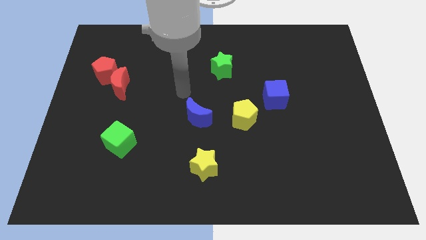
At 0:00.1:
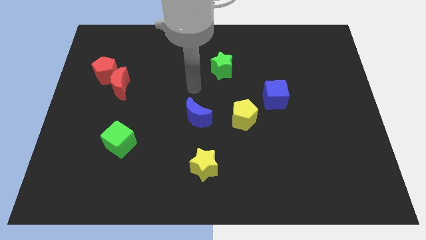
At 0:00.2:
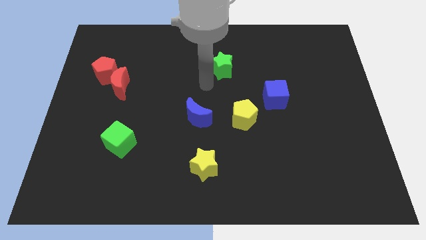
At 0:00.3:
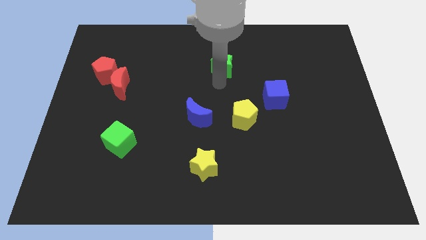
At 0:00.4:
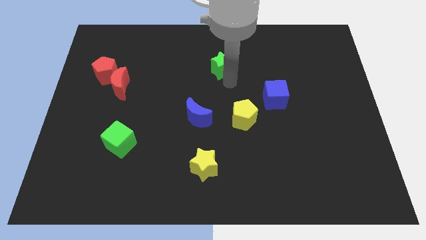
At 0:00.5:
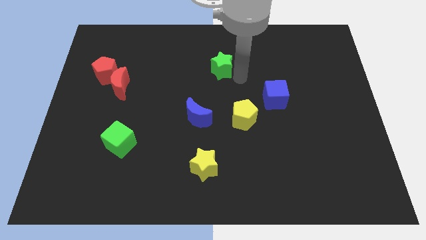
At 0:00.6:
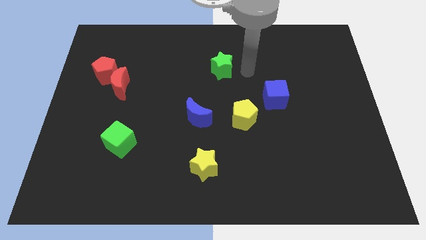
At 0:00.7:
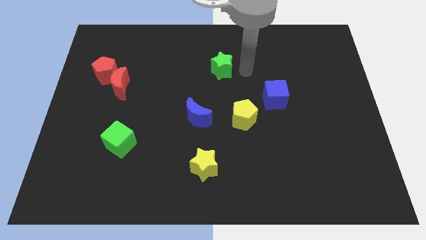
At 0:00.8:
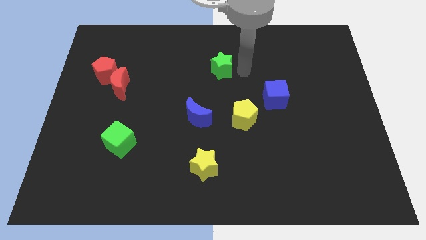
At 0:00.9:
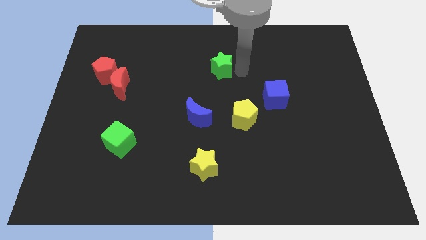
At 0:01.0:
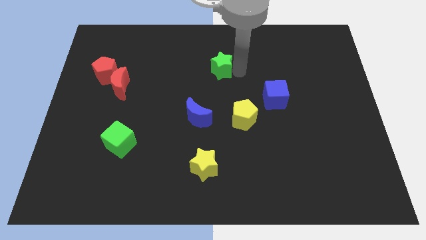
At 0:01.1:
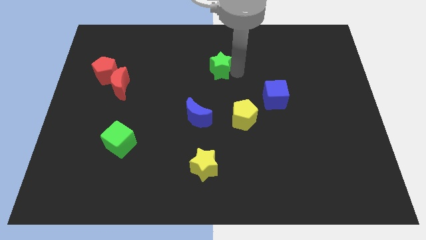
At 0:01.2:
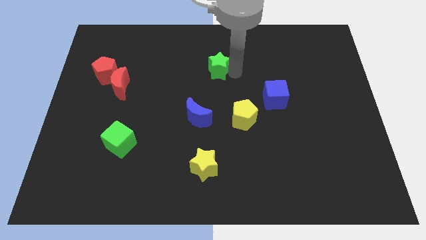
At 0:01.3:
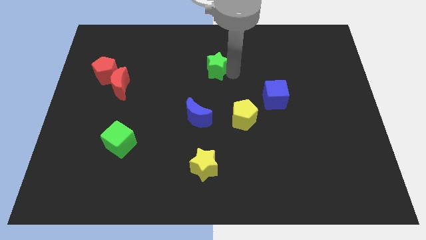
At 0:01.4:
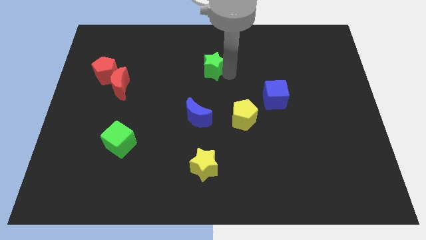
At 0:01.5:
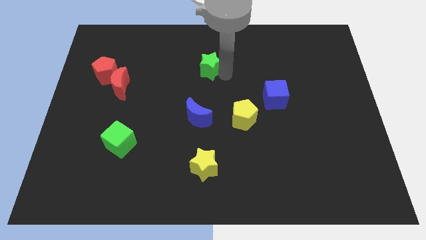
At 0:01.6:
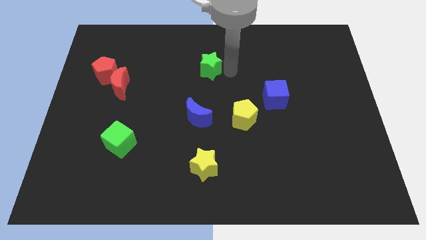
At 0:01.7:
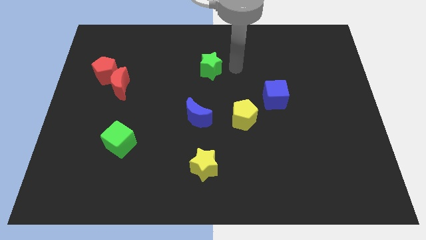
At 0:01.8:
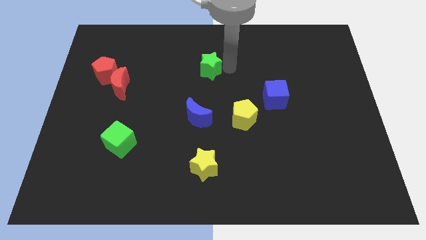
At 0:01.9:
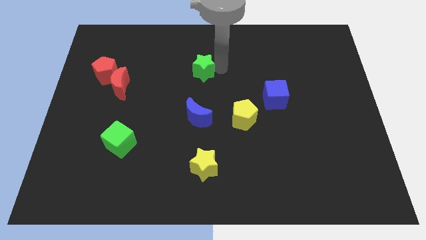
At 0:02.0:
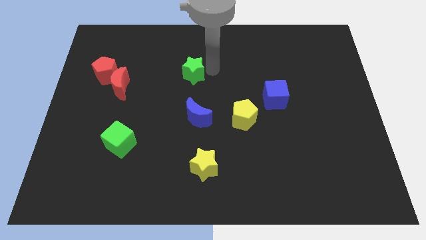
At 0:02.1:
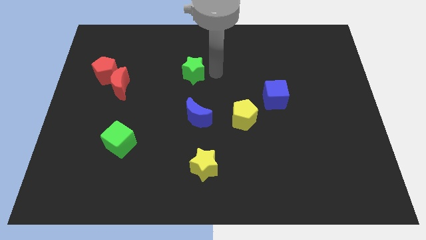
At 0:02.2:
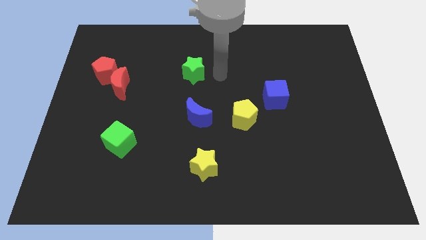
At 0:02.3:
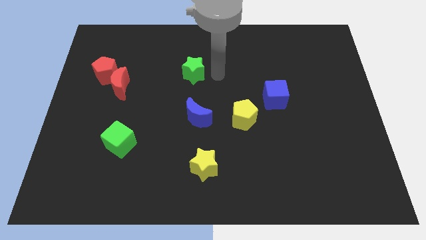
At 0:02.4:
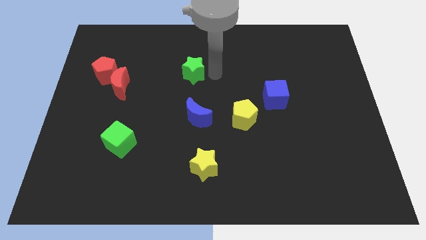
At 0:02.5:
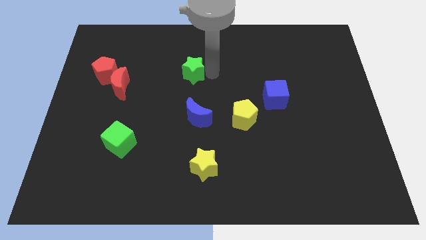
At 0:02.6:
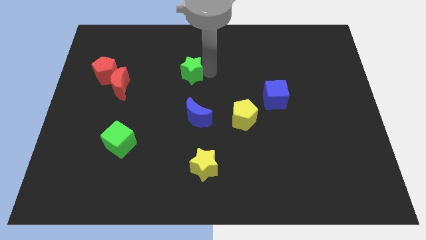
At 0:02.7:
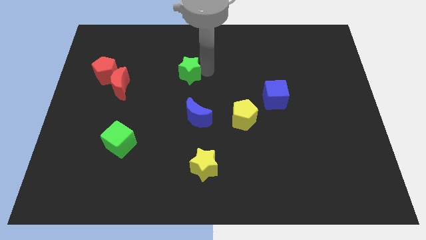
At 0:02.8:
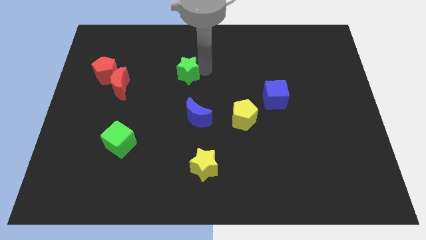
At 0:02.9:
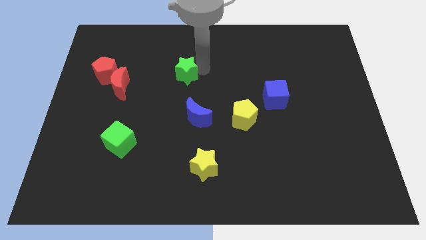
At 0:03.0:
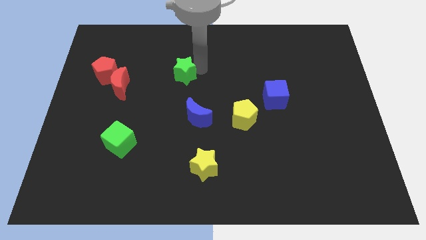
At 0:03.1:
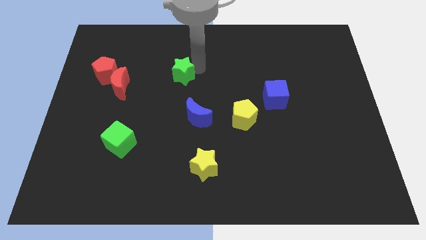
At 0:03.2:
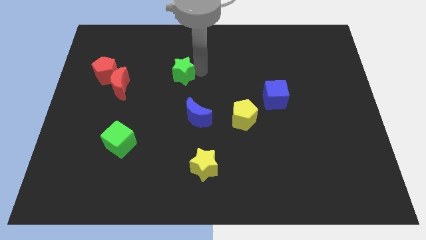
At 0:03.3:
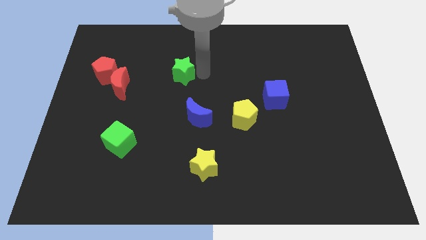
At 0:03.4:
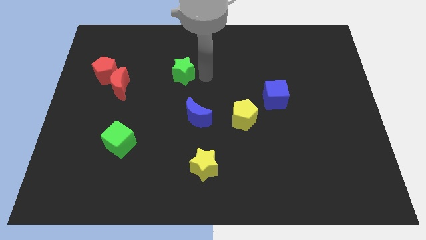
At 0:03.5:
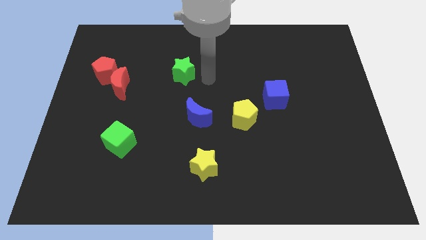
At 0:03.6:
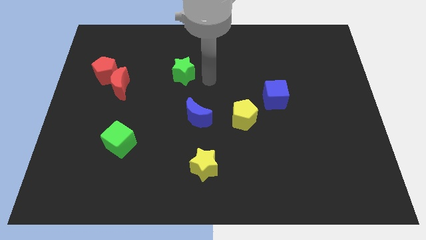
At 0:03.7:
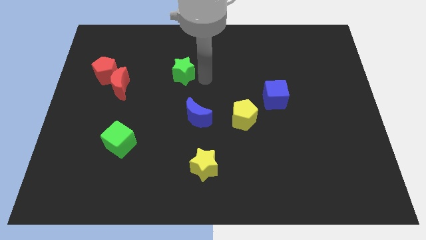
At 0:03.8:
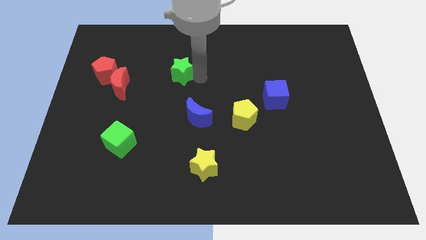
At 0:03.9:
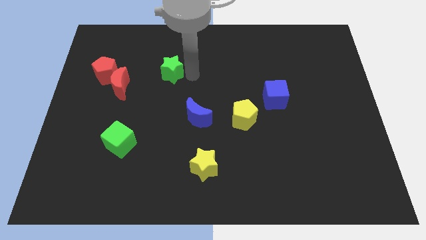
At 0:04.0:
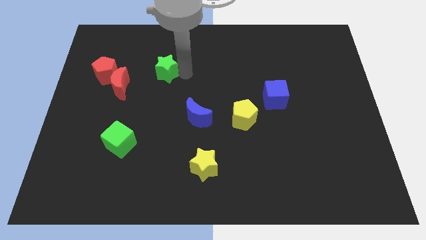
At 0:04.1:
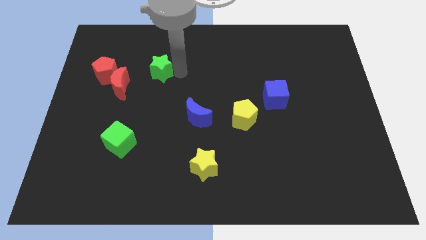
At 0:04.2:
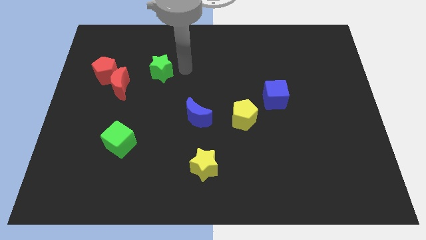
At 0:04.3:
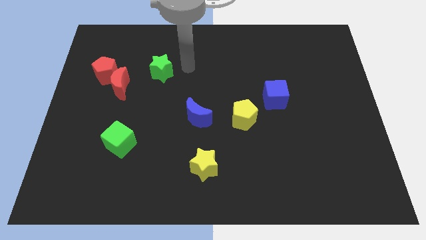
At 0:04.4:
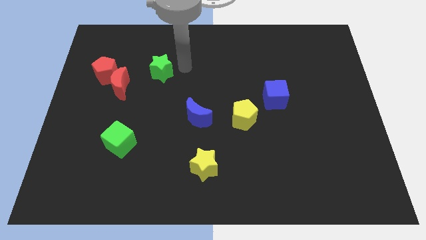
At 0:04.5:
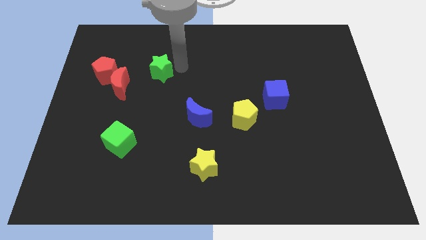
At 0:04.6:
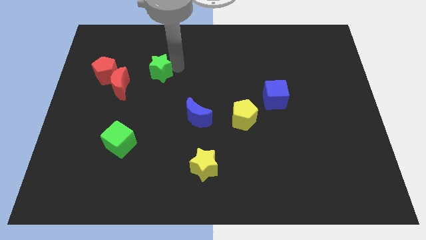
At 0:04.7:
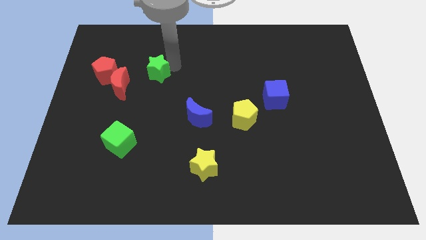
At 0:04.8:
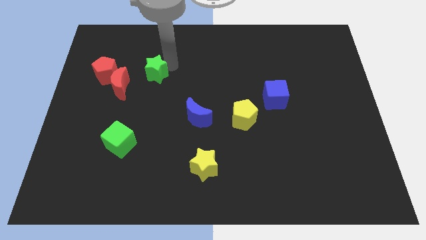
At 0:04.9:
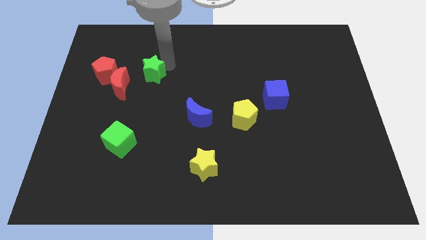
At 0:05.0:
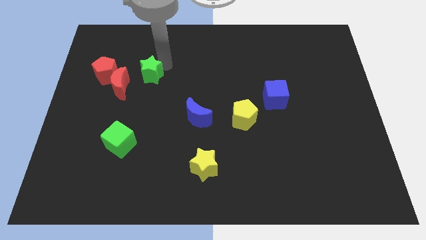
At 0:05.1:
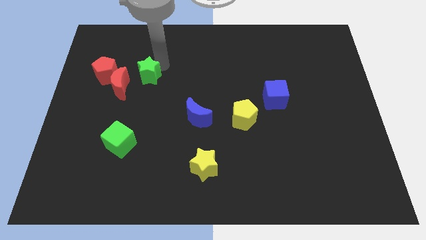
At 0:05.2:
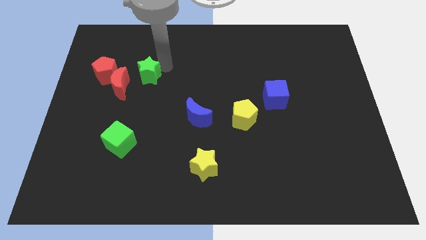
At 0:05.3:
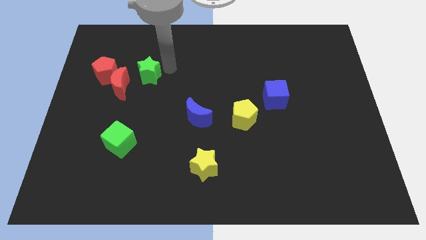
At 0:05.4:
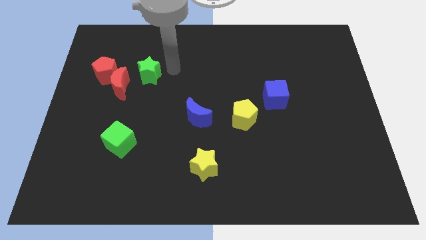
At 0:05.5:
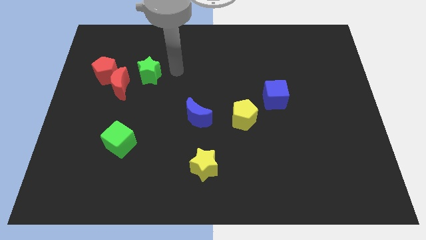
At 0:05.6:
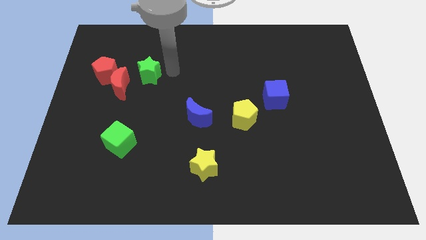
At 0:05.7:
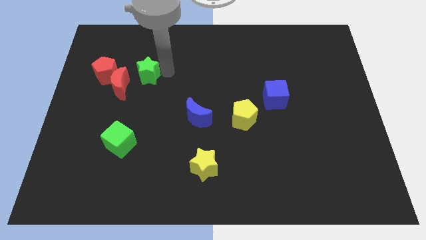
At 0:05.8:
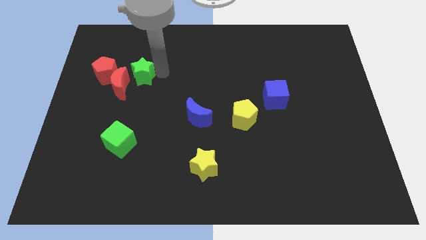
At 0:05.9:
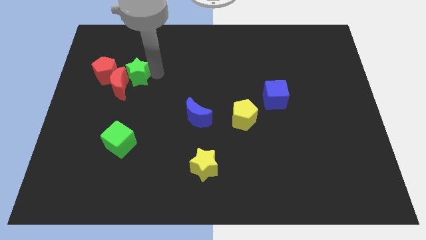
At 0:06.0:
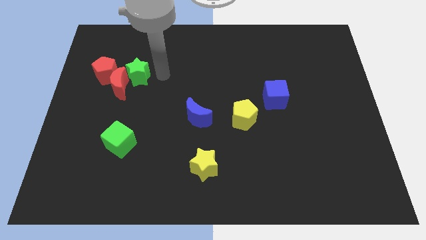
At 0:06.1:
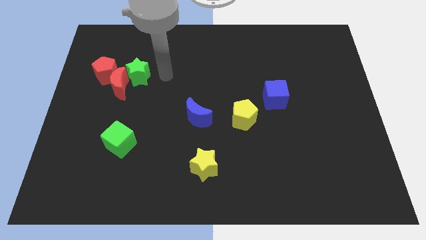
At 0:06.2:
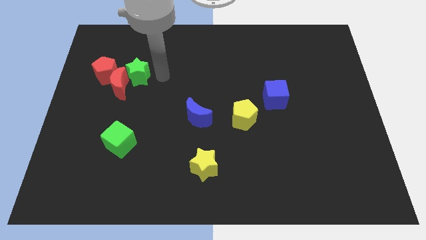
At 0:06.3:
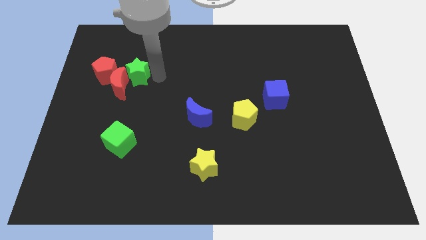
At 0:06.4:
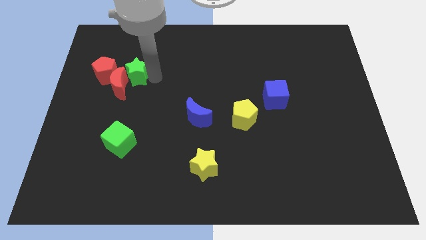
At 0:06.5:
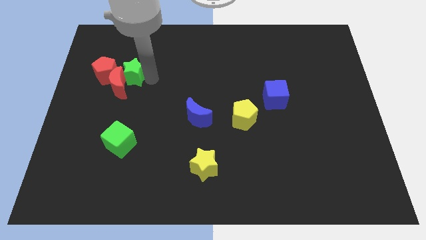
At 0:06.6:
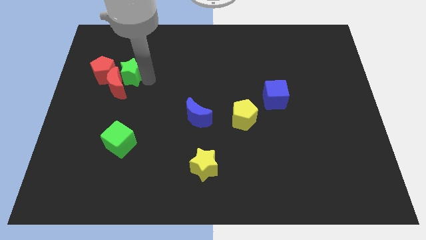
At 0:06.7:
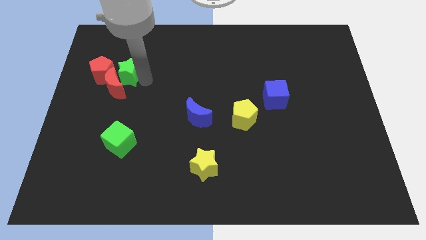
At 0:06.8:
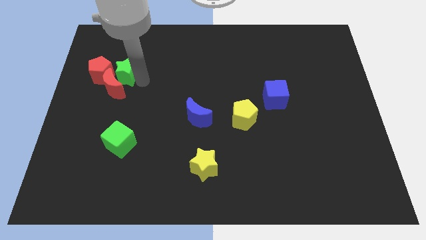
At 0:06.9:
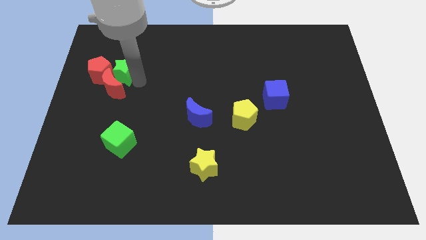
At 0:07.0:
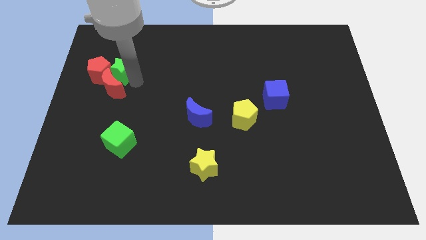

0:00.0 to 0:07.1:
put the green star next to the red pentagon
